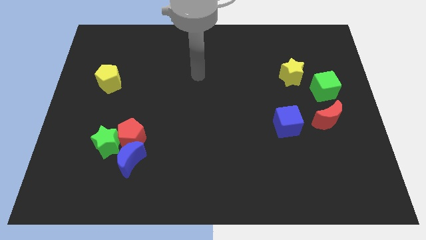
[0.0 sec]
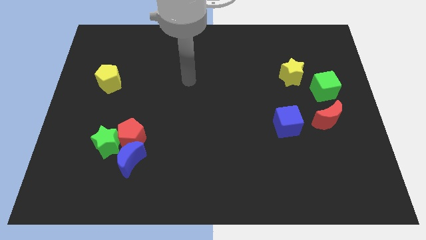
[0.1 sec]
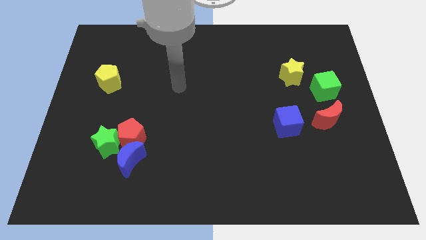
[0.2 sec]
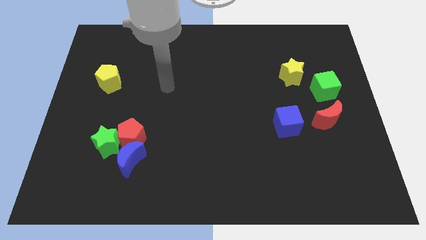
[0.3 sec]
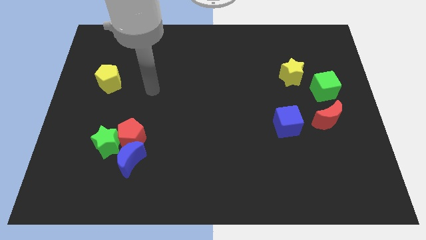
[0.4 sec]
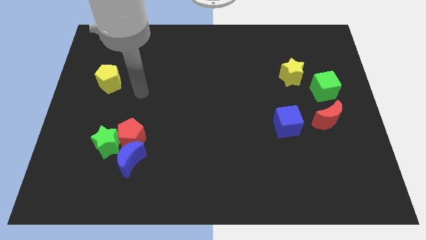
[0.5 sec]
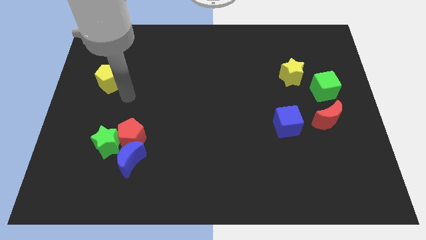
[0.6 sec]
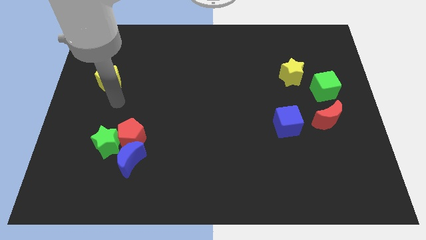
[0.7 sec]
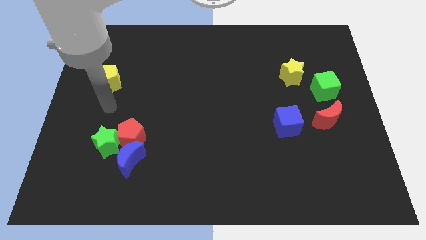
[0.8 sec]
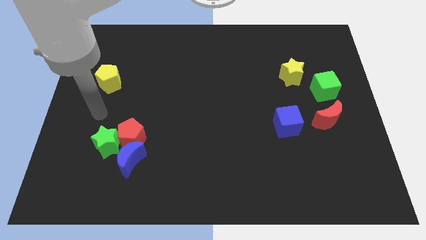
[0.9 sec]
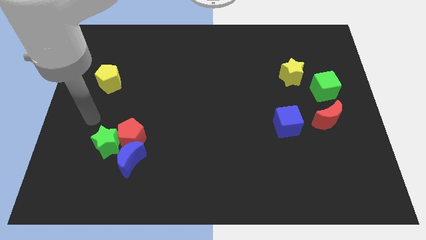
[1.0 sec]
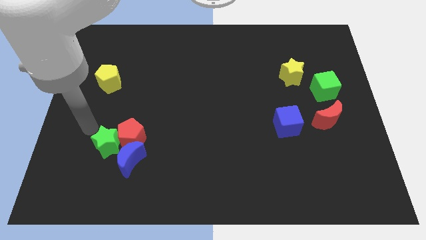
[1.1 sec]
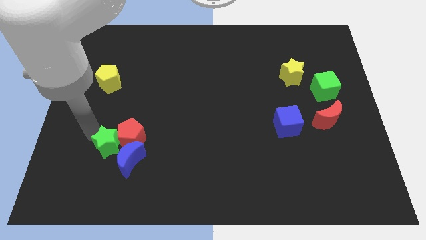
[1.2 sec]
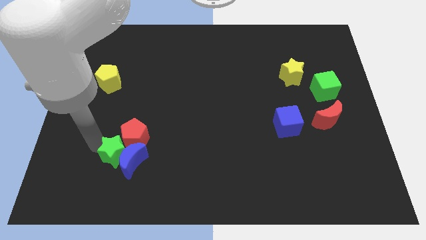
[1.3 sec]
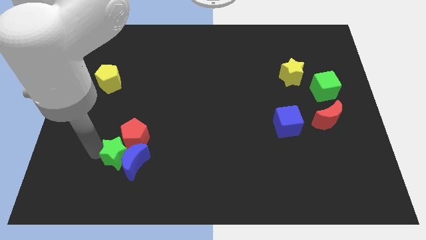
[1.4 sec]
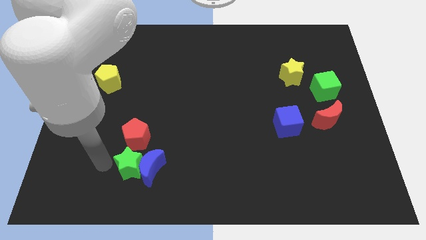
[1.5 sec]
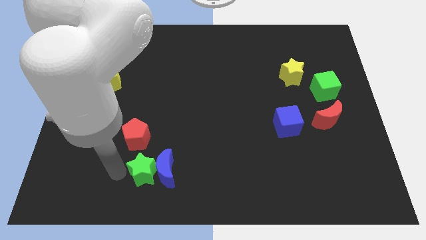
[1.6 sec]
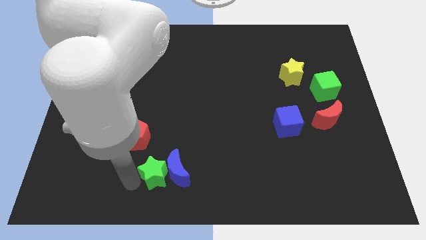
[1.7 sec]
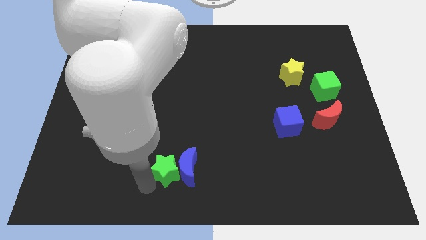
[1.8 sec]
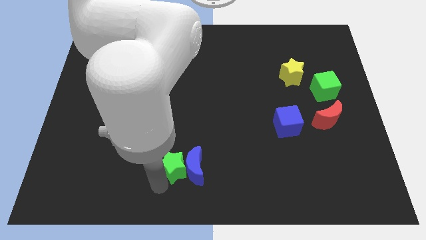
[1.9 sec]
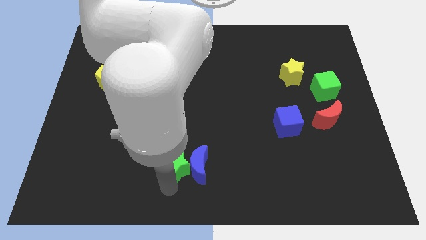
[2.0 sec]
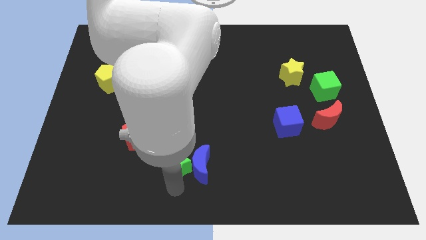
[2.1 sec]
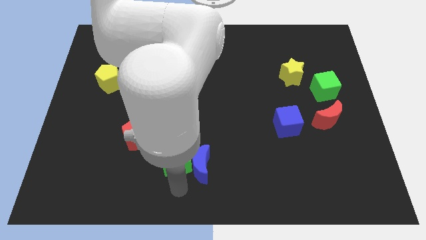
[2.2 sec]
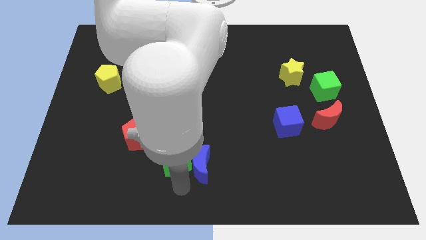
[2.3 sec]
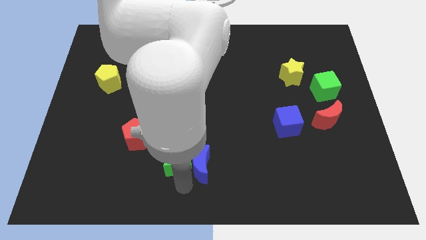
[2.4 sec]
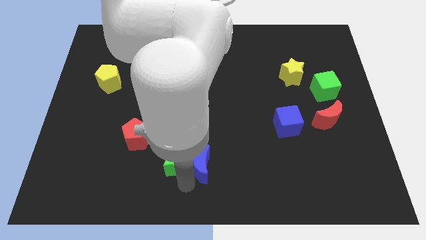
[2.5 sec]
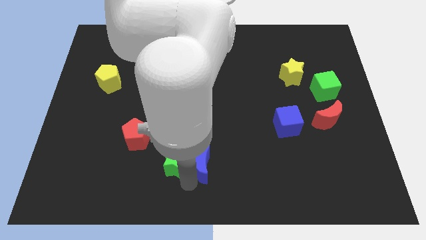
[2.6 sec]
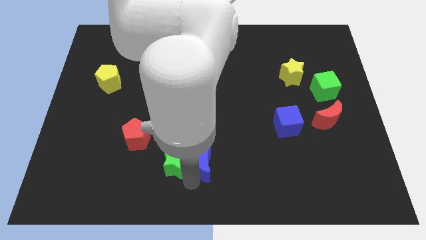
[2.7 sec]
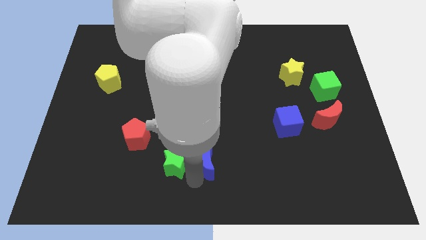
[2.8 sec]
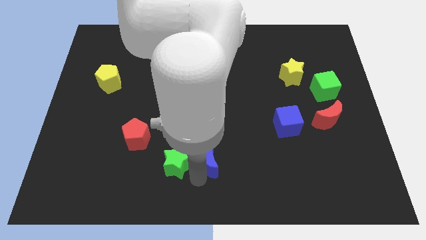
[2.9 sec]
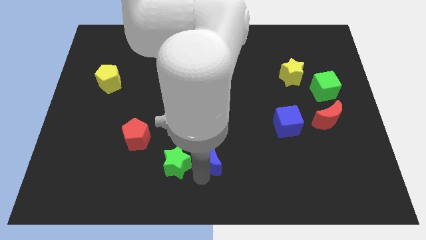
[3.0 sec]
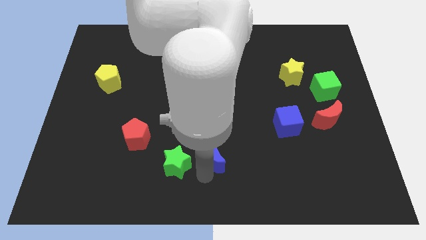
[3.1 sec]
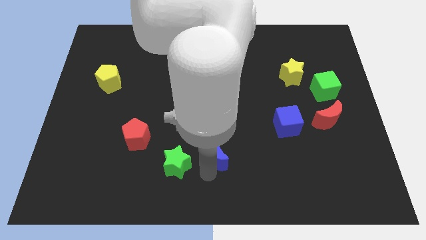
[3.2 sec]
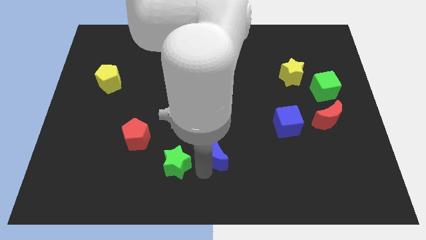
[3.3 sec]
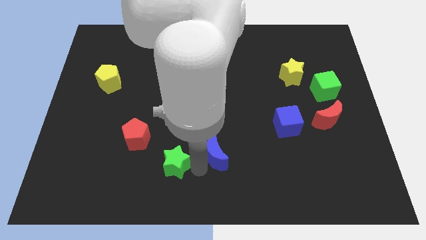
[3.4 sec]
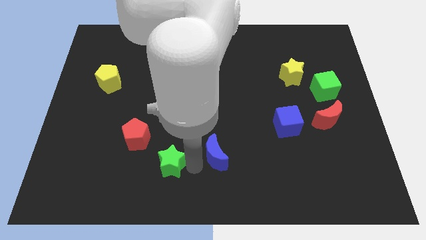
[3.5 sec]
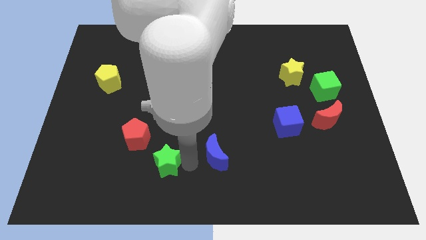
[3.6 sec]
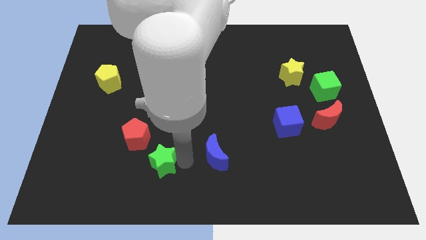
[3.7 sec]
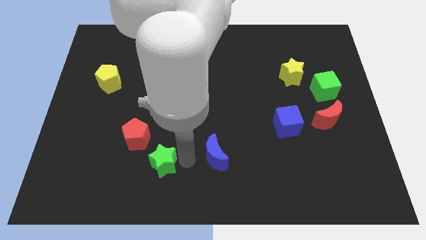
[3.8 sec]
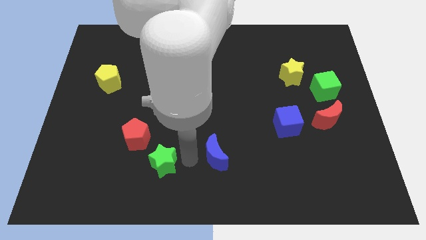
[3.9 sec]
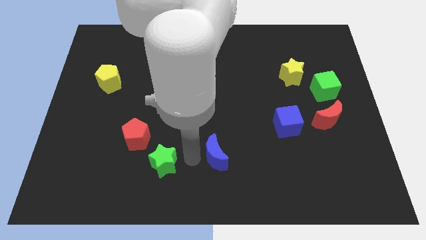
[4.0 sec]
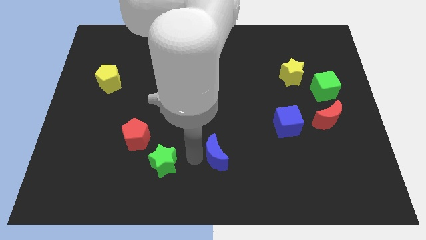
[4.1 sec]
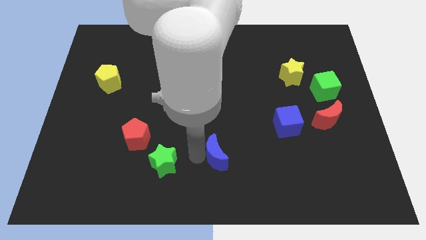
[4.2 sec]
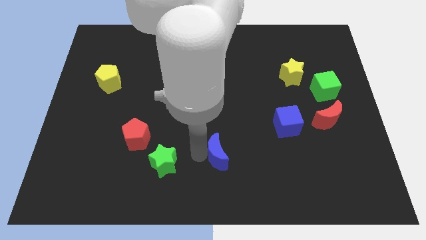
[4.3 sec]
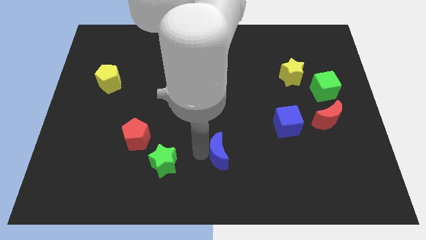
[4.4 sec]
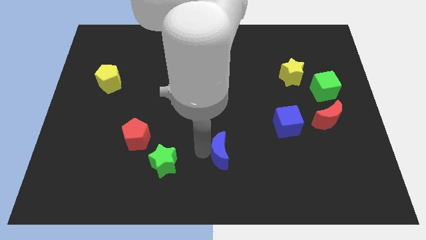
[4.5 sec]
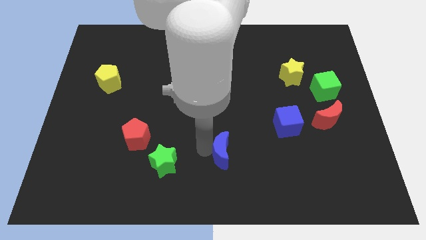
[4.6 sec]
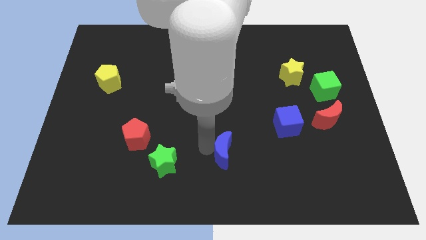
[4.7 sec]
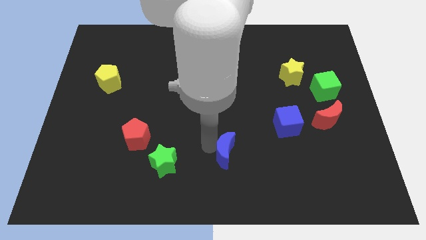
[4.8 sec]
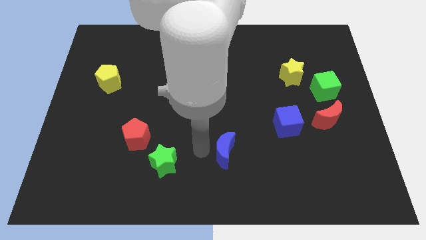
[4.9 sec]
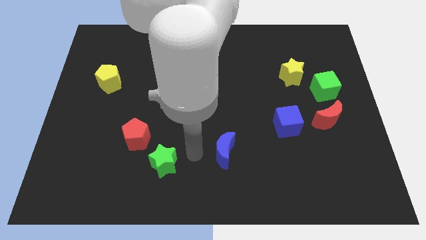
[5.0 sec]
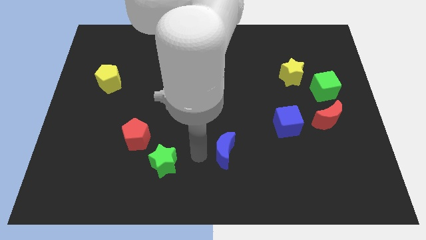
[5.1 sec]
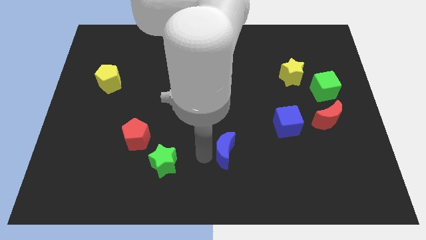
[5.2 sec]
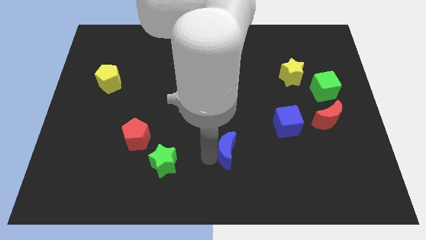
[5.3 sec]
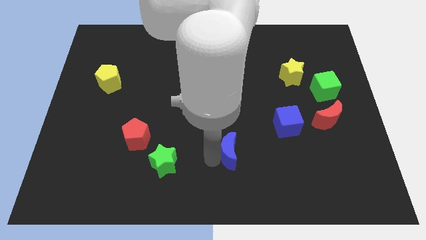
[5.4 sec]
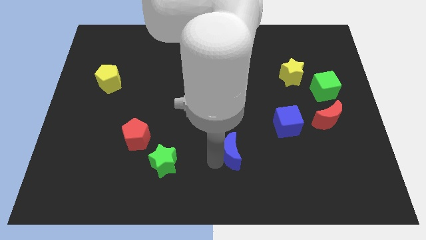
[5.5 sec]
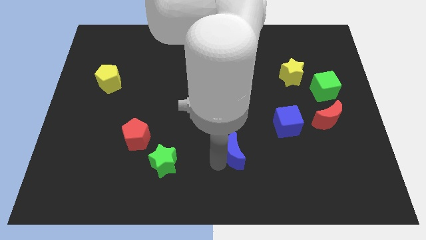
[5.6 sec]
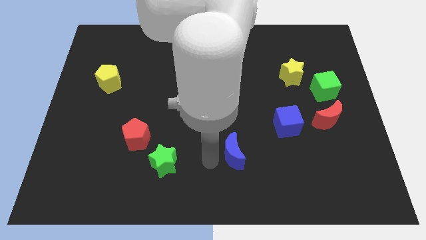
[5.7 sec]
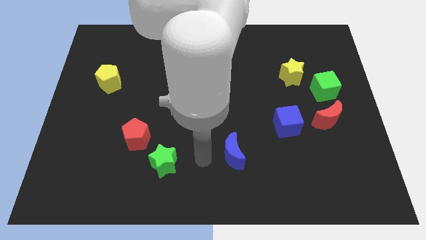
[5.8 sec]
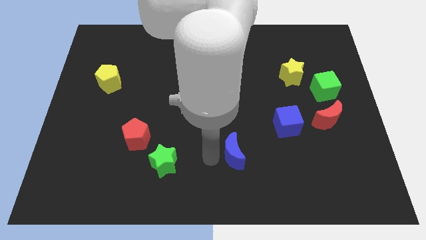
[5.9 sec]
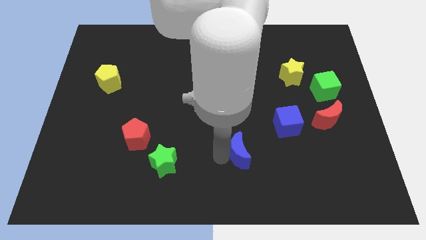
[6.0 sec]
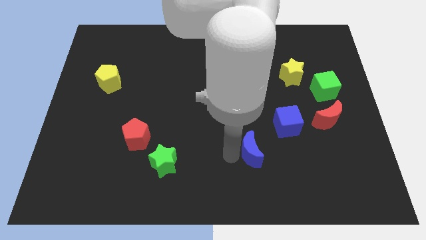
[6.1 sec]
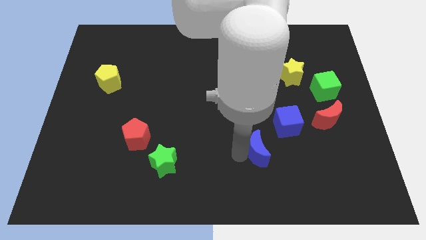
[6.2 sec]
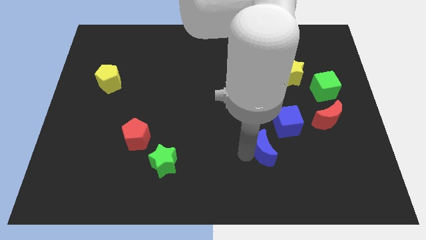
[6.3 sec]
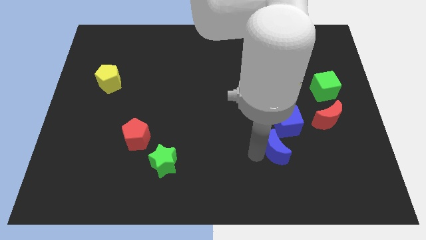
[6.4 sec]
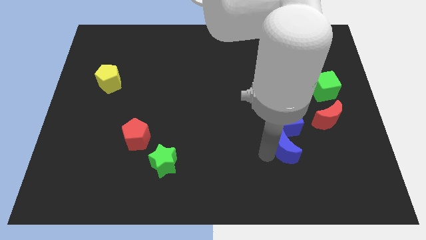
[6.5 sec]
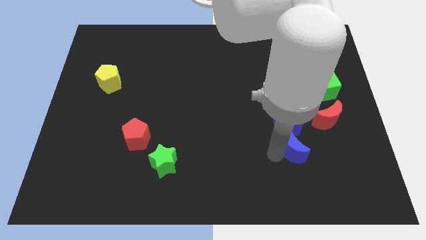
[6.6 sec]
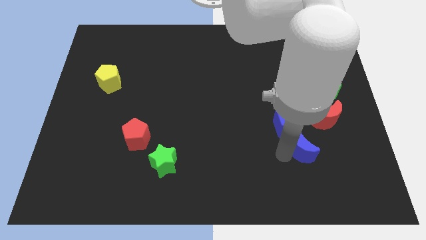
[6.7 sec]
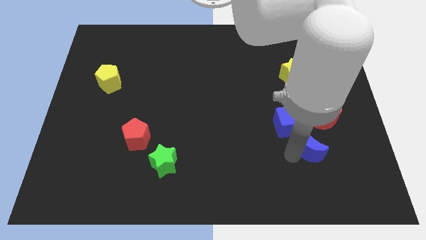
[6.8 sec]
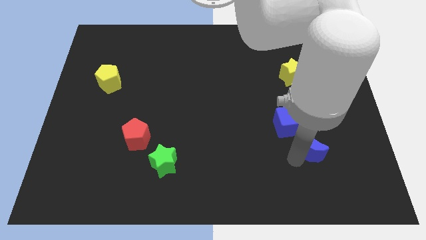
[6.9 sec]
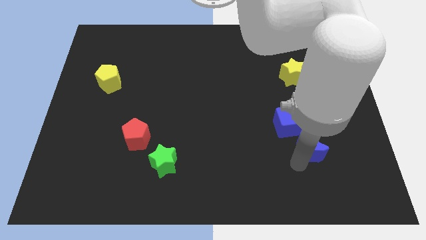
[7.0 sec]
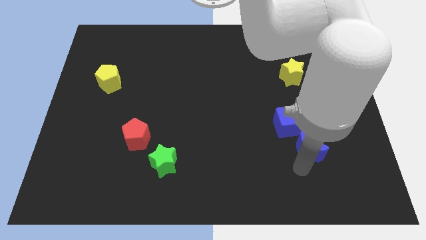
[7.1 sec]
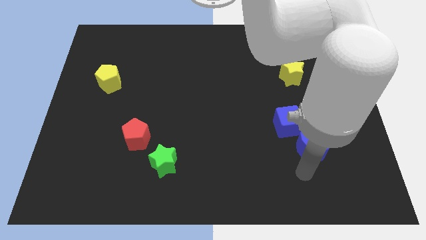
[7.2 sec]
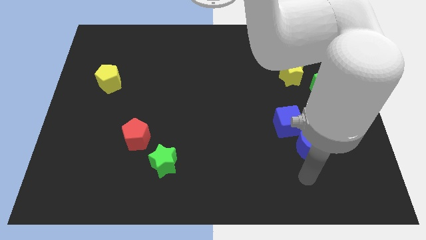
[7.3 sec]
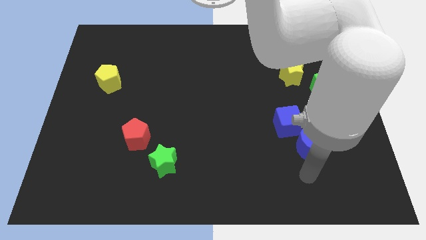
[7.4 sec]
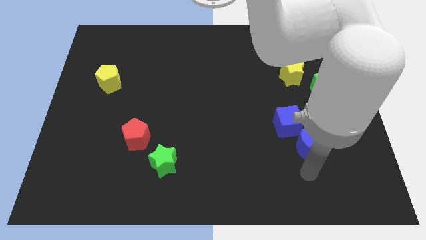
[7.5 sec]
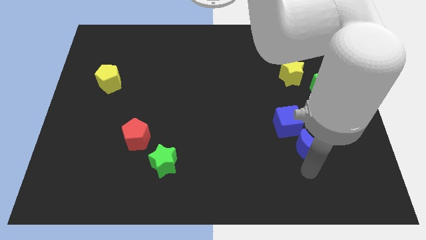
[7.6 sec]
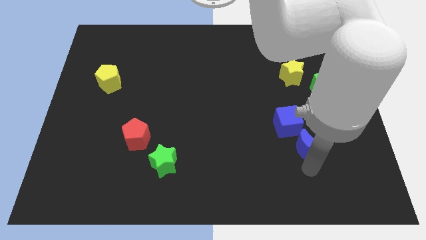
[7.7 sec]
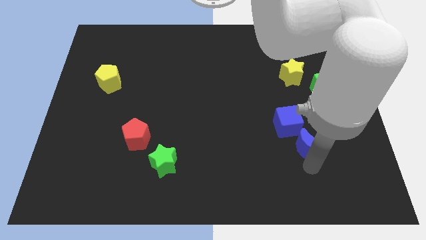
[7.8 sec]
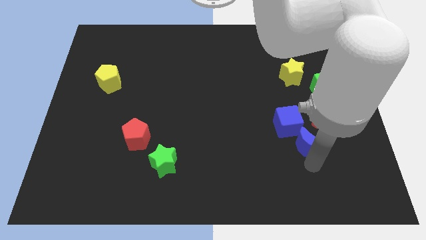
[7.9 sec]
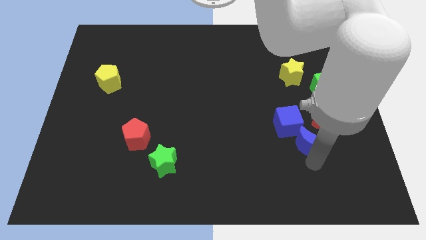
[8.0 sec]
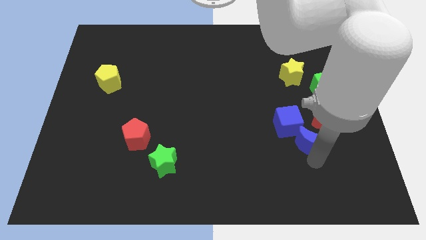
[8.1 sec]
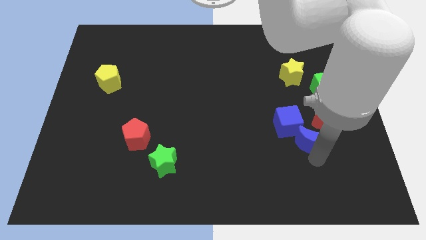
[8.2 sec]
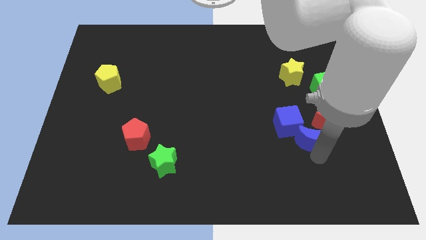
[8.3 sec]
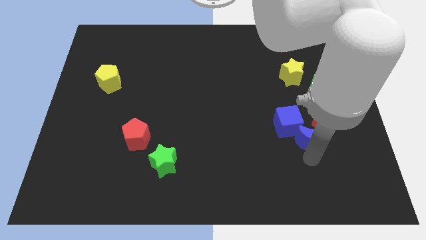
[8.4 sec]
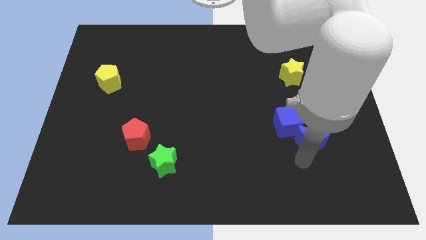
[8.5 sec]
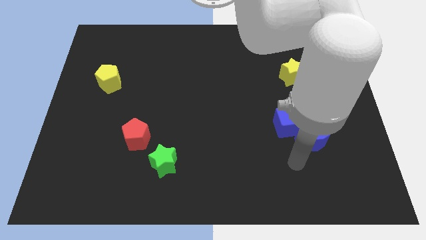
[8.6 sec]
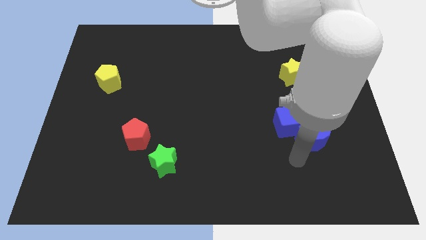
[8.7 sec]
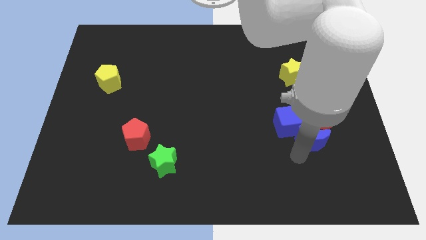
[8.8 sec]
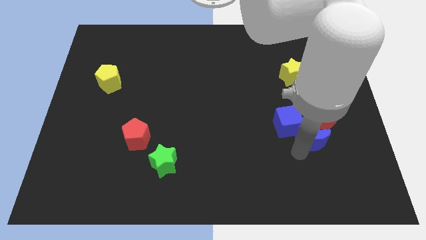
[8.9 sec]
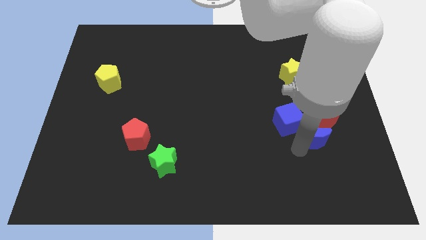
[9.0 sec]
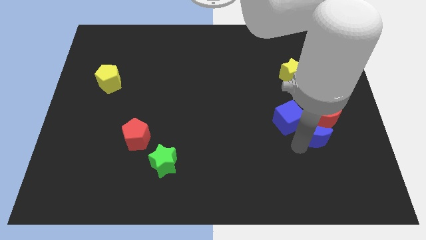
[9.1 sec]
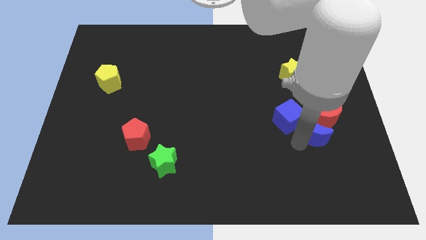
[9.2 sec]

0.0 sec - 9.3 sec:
slide the blue moon close to the red moon
